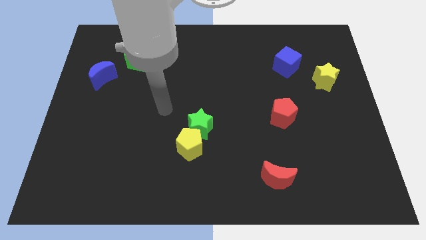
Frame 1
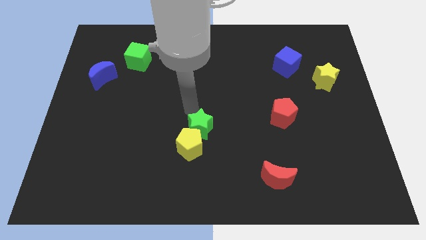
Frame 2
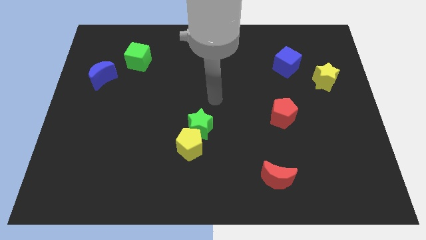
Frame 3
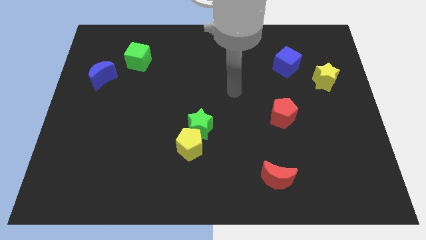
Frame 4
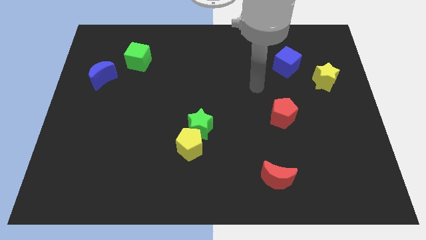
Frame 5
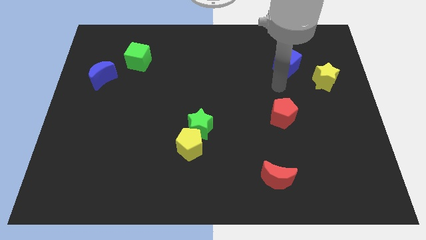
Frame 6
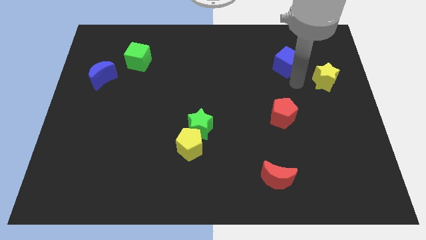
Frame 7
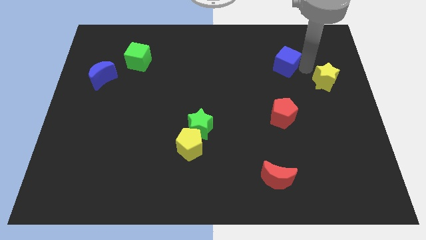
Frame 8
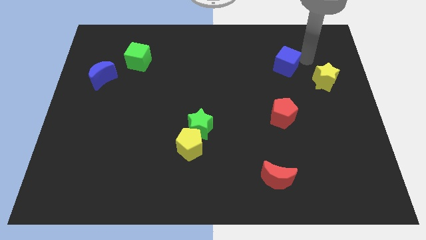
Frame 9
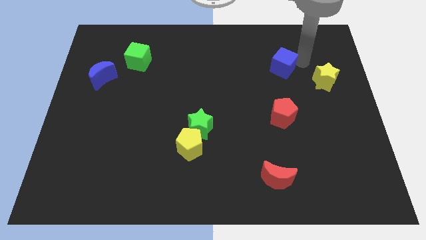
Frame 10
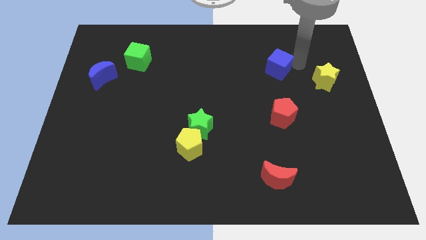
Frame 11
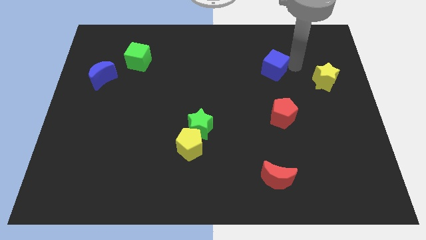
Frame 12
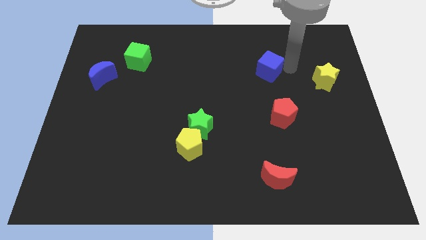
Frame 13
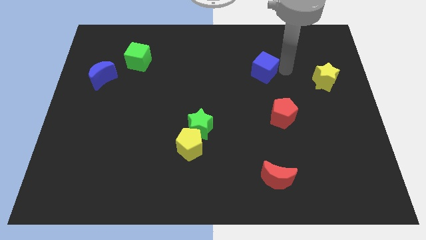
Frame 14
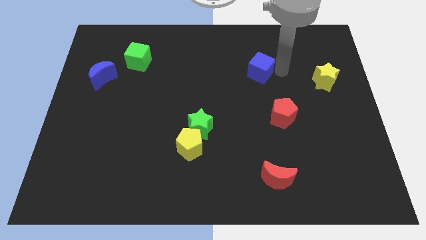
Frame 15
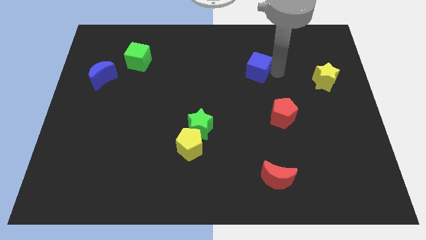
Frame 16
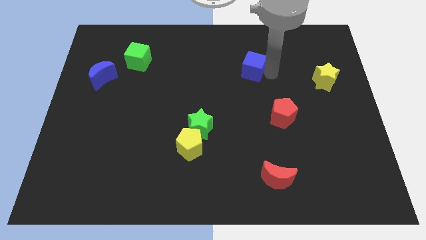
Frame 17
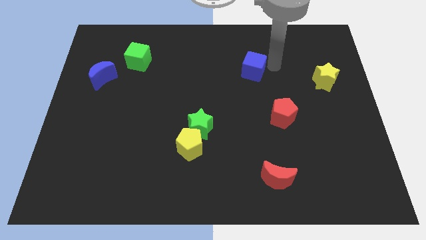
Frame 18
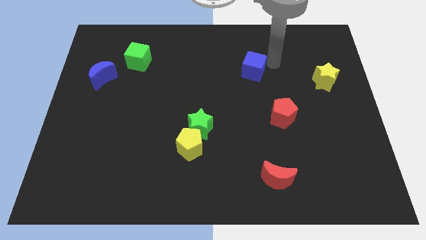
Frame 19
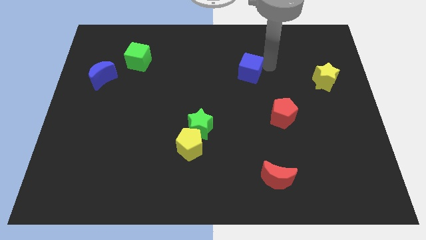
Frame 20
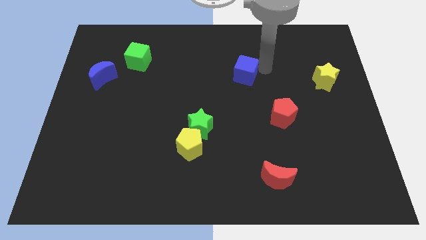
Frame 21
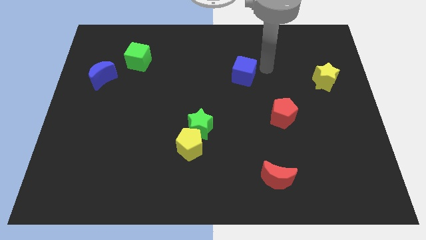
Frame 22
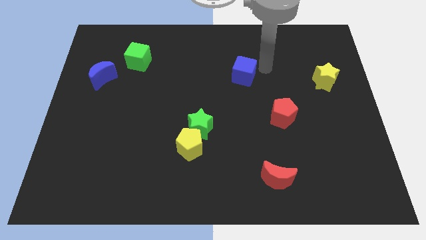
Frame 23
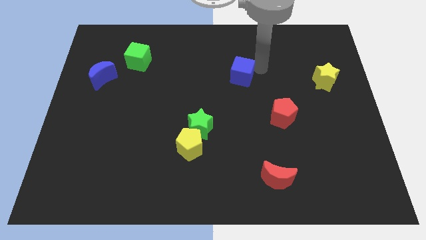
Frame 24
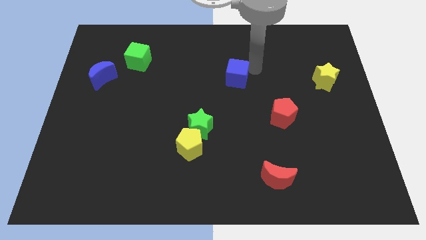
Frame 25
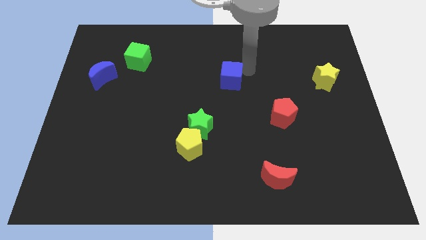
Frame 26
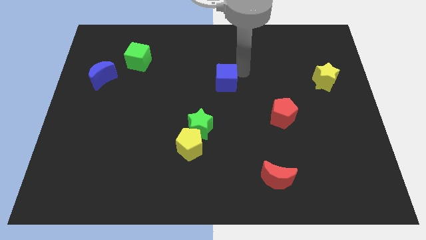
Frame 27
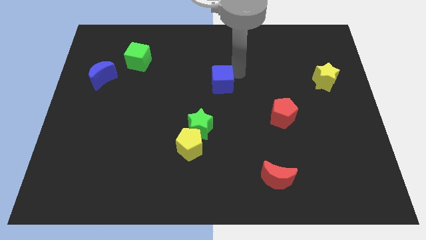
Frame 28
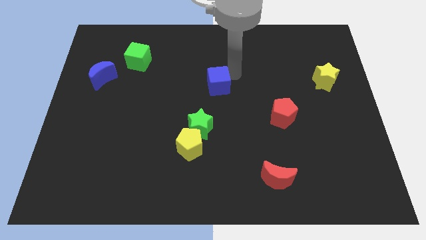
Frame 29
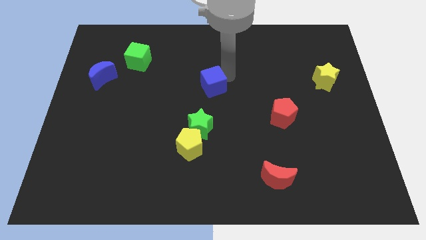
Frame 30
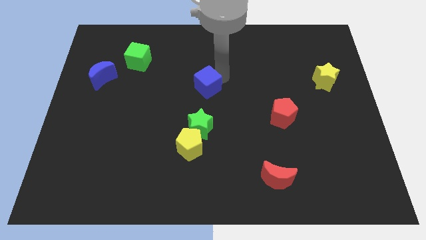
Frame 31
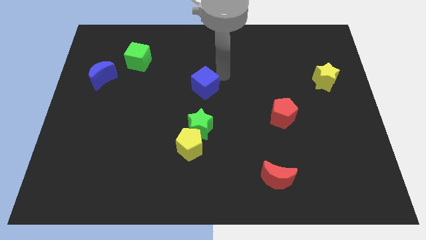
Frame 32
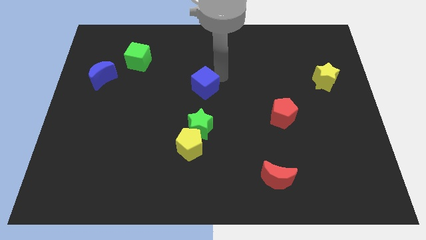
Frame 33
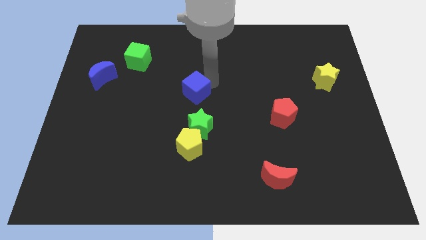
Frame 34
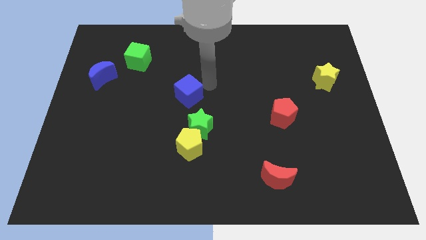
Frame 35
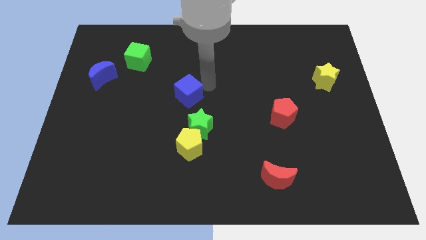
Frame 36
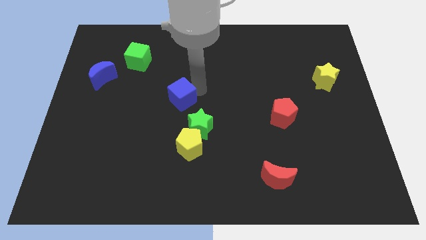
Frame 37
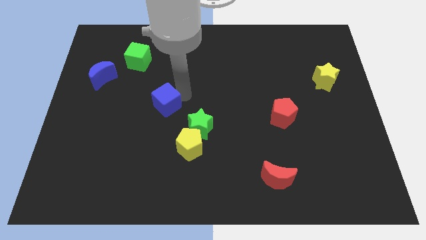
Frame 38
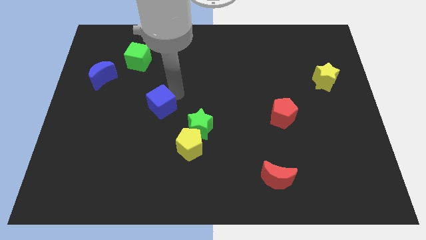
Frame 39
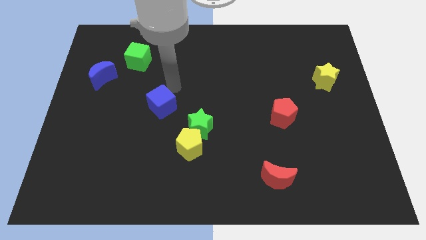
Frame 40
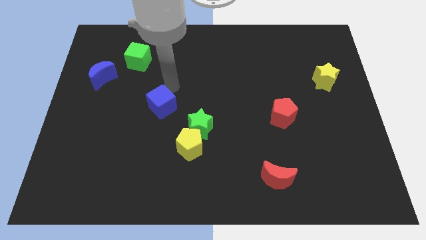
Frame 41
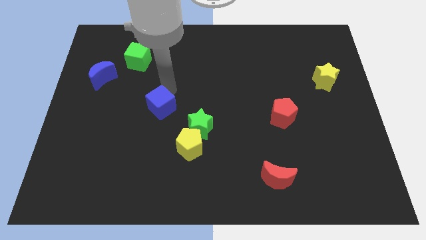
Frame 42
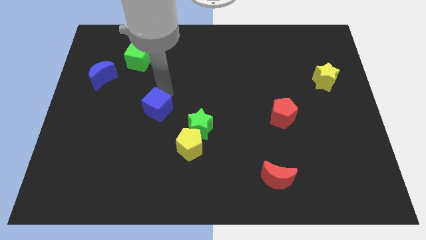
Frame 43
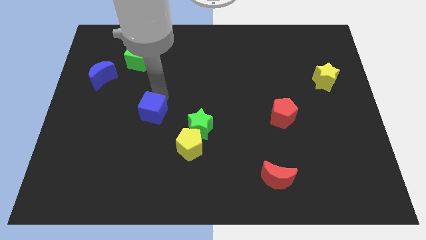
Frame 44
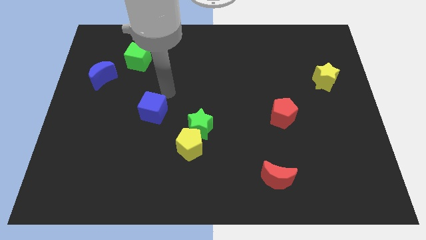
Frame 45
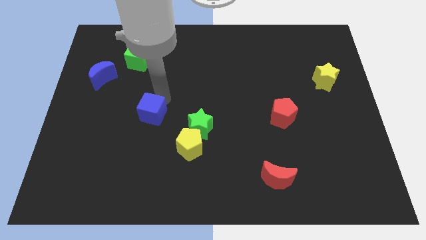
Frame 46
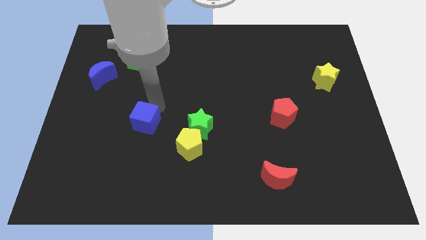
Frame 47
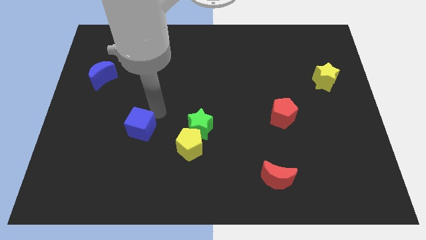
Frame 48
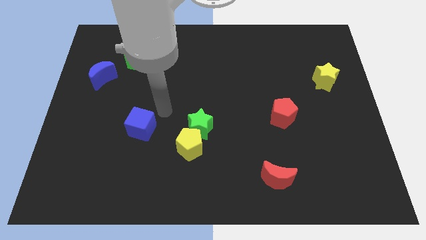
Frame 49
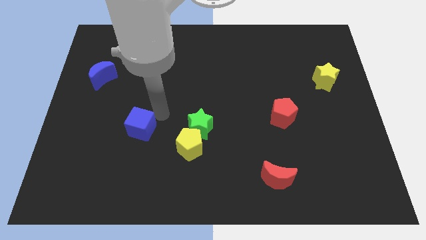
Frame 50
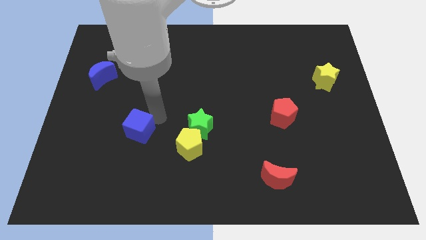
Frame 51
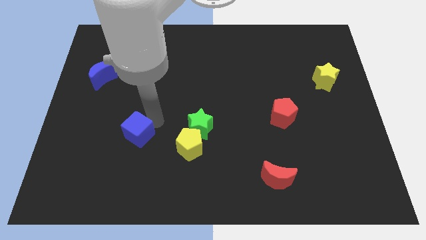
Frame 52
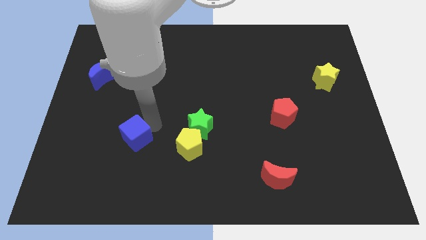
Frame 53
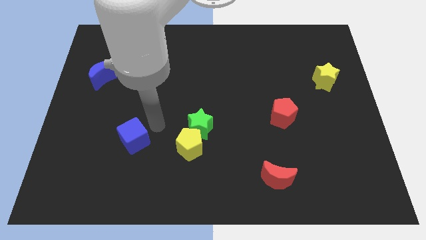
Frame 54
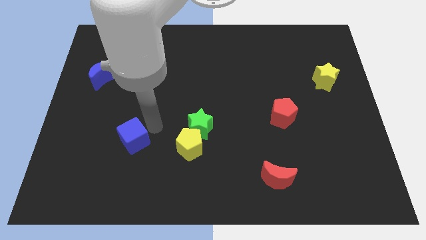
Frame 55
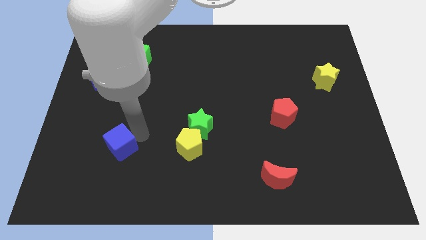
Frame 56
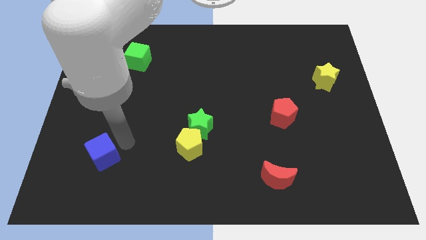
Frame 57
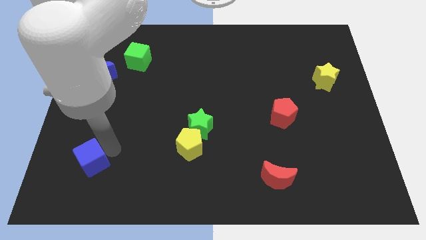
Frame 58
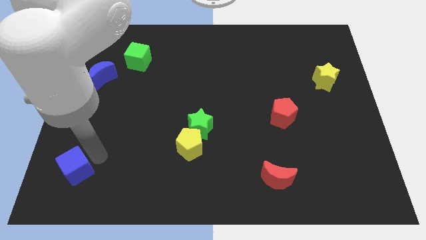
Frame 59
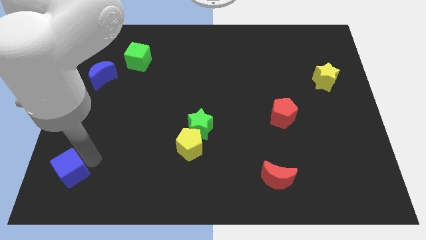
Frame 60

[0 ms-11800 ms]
move the blue cube to the bottom left of the board

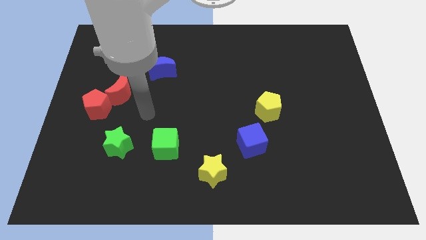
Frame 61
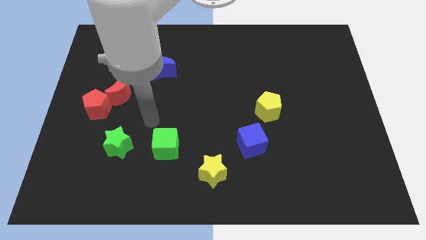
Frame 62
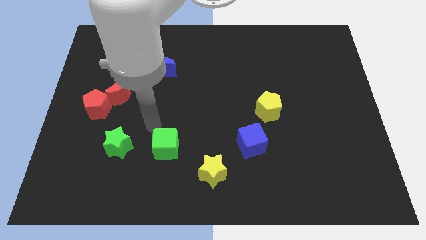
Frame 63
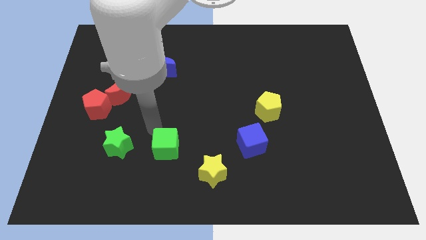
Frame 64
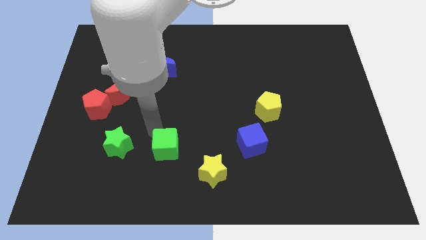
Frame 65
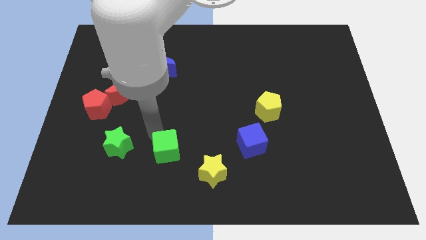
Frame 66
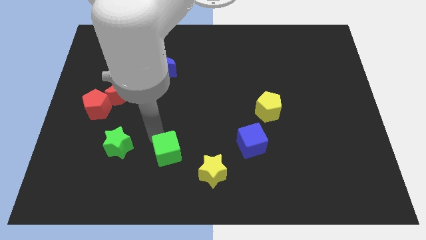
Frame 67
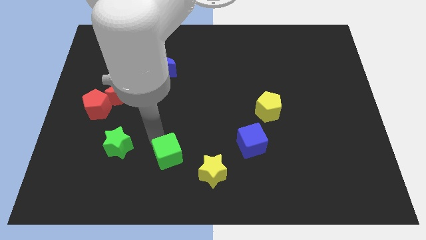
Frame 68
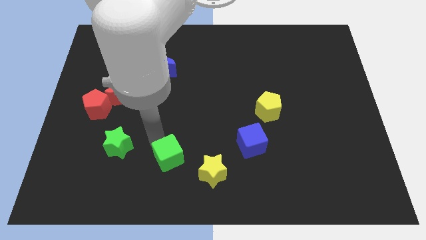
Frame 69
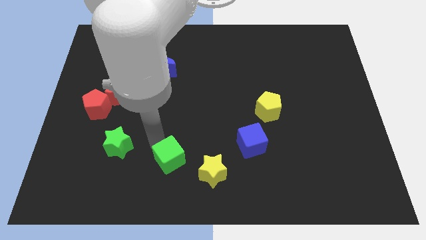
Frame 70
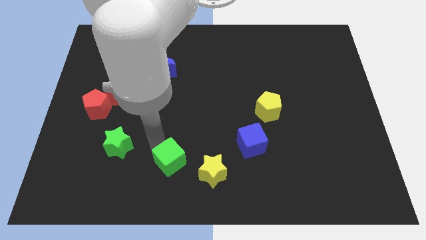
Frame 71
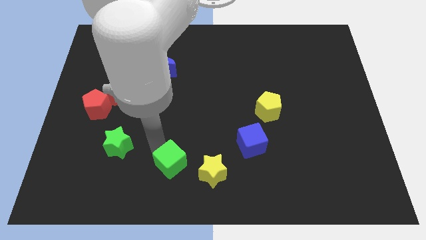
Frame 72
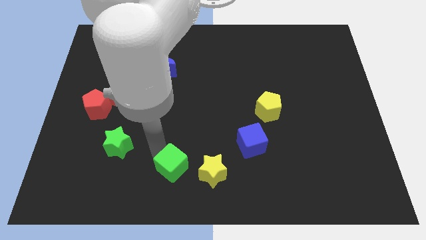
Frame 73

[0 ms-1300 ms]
push the green cube to the bottom

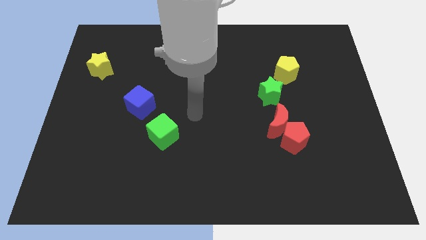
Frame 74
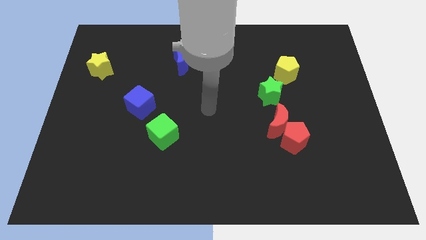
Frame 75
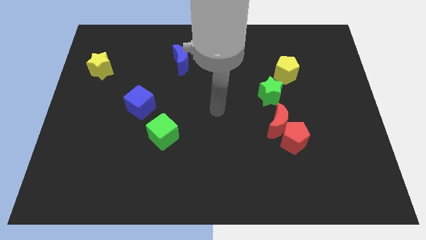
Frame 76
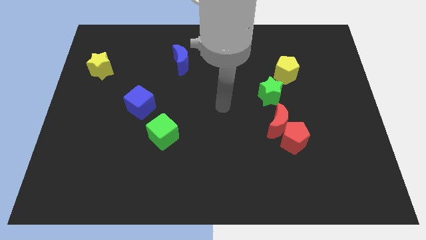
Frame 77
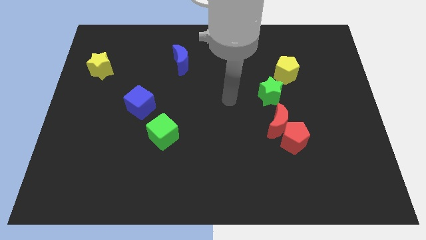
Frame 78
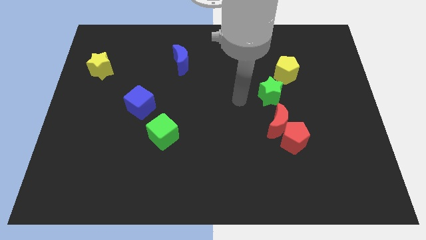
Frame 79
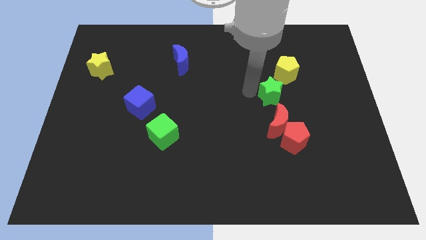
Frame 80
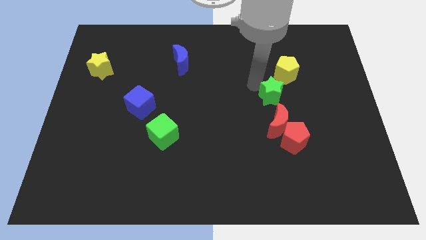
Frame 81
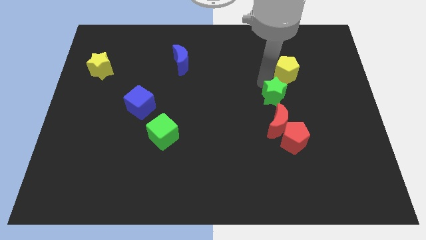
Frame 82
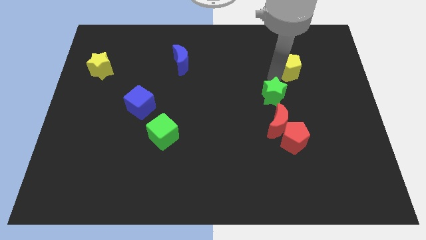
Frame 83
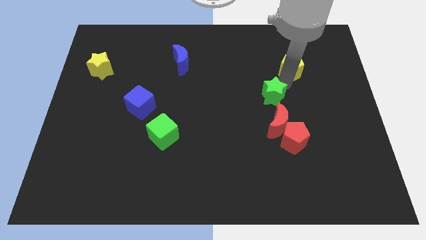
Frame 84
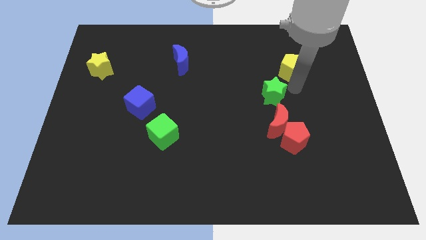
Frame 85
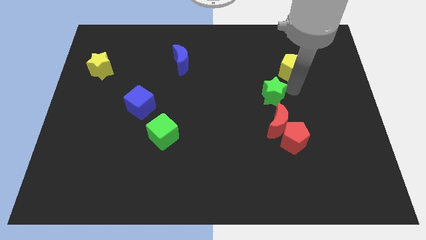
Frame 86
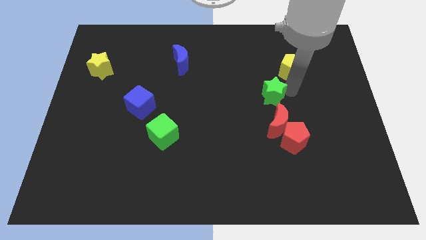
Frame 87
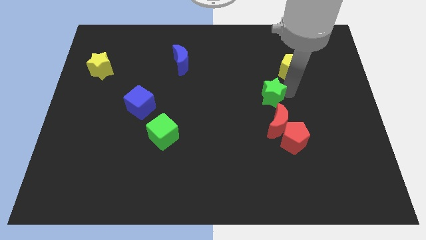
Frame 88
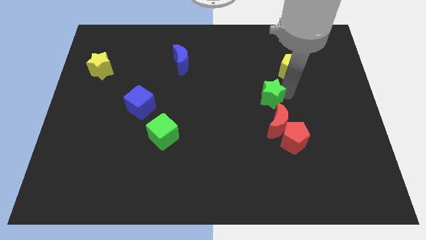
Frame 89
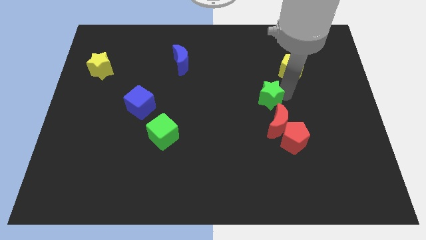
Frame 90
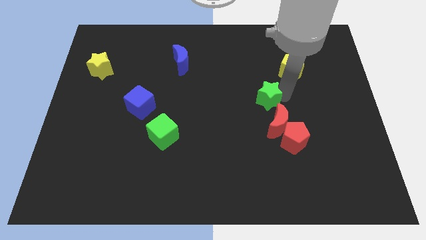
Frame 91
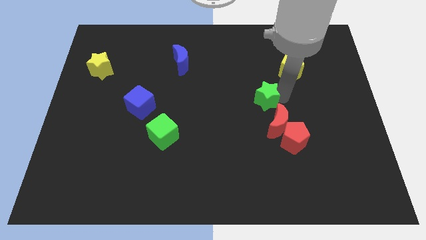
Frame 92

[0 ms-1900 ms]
move the green star to the center
